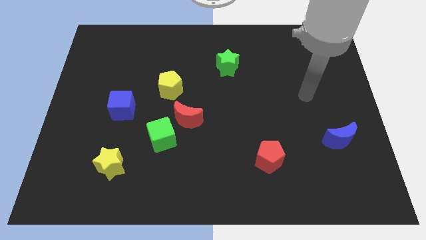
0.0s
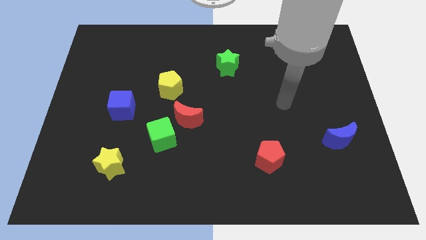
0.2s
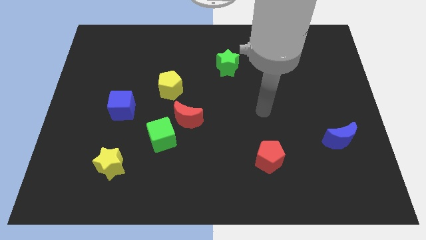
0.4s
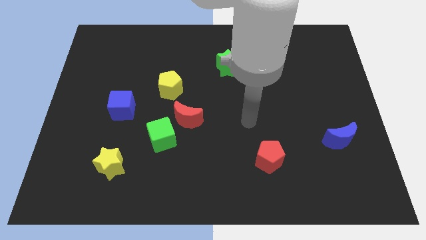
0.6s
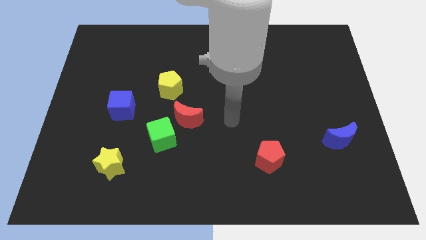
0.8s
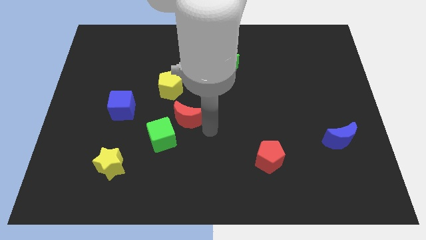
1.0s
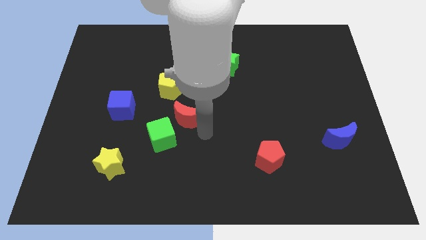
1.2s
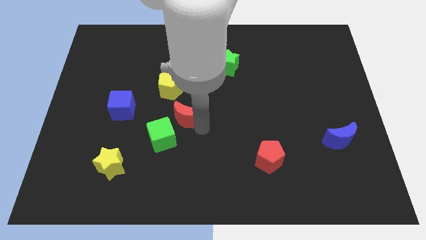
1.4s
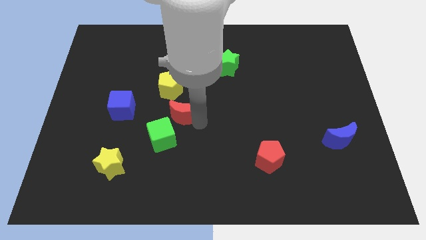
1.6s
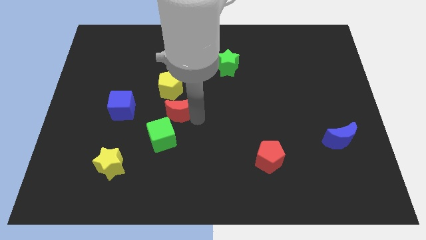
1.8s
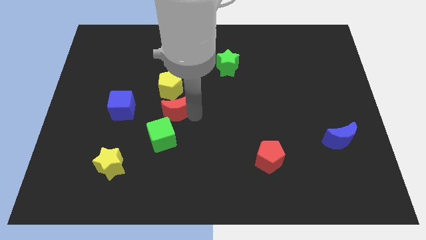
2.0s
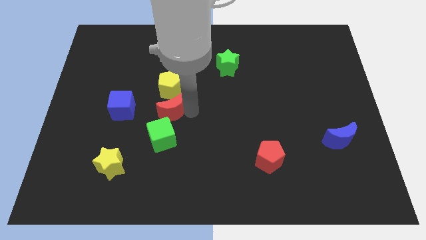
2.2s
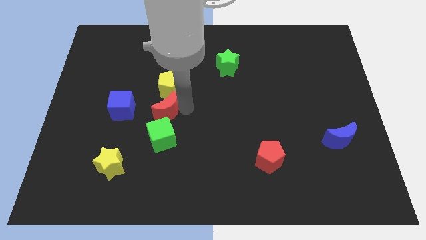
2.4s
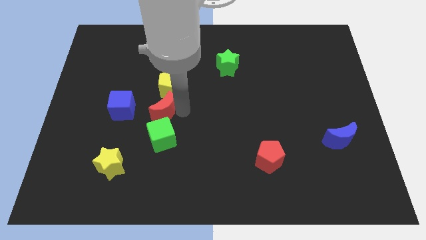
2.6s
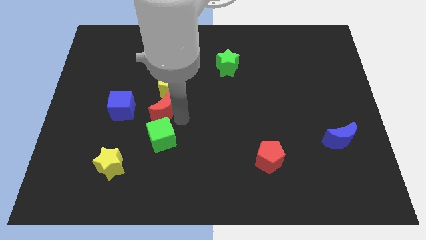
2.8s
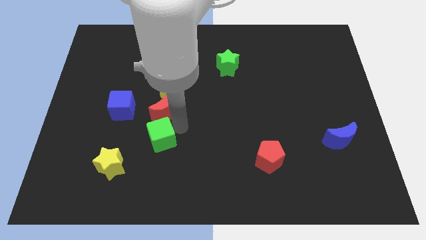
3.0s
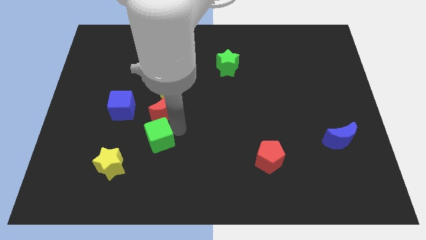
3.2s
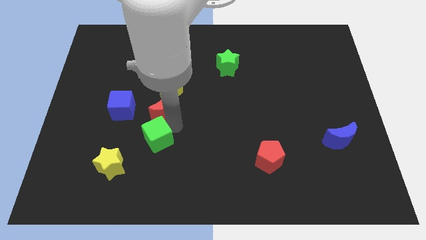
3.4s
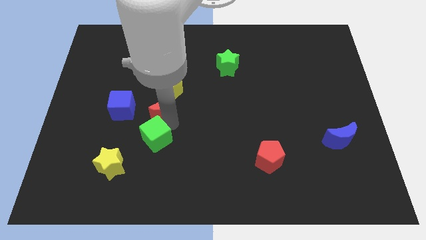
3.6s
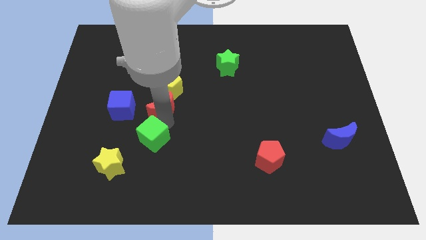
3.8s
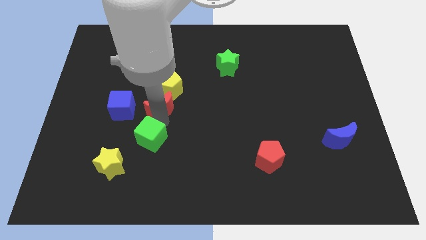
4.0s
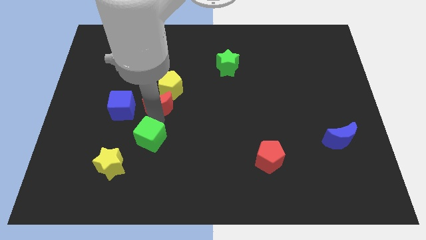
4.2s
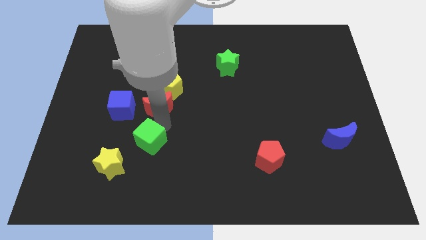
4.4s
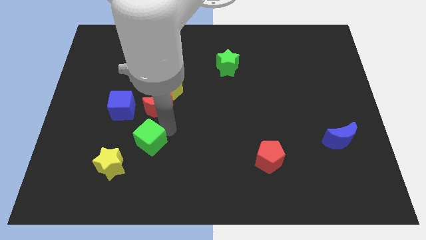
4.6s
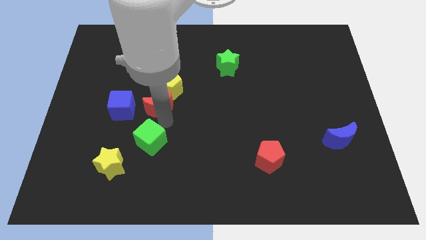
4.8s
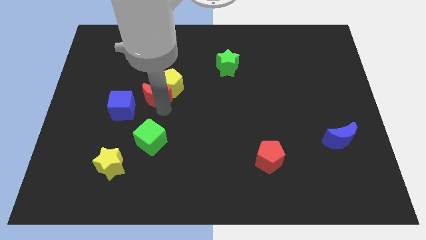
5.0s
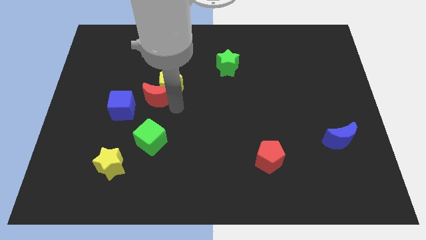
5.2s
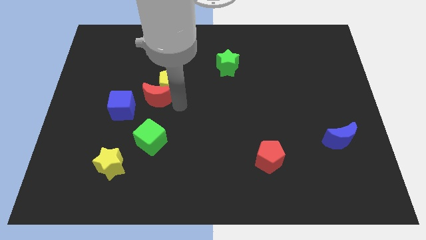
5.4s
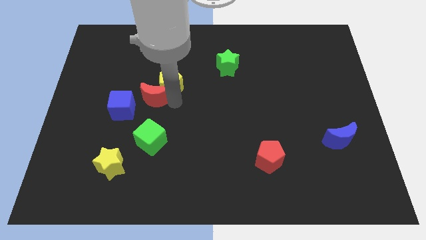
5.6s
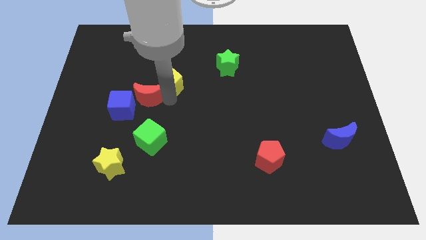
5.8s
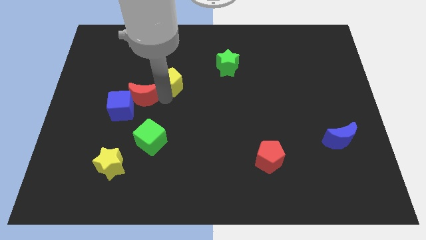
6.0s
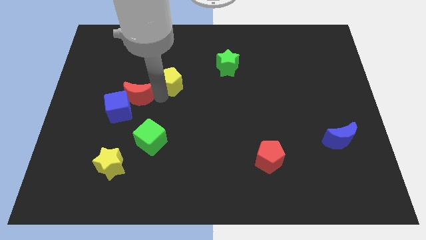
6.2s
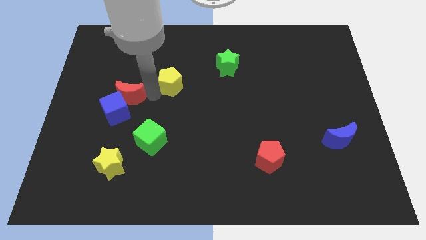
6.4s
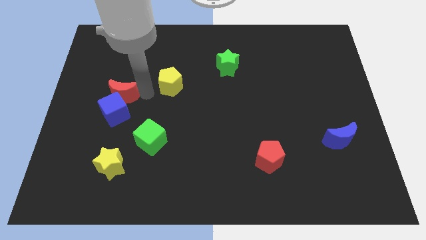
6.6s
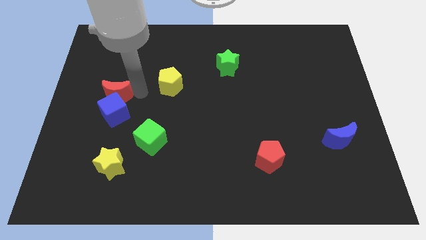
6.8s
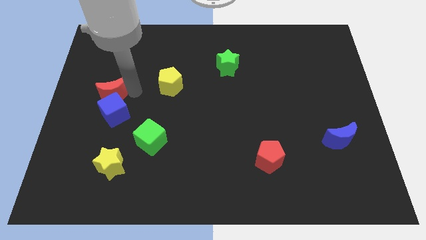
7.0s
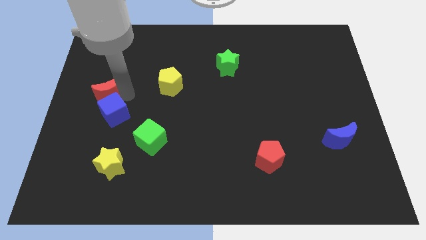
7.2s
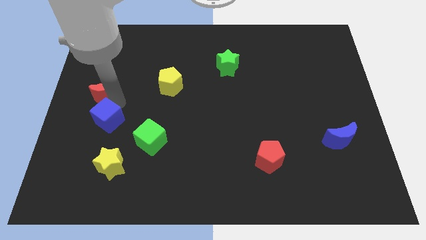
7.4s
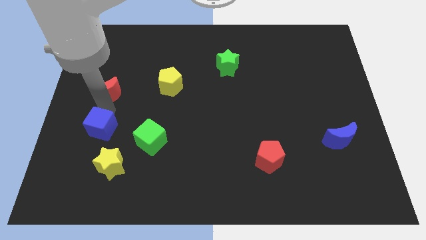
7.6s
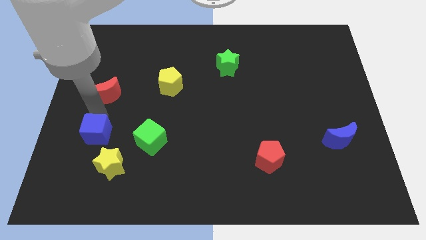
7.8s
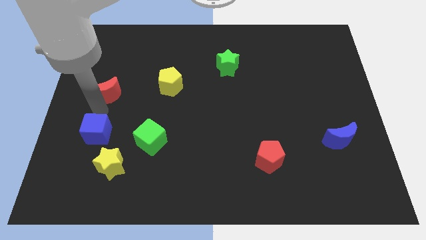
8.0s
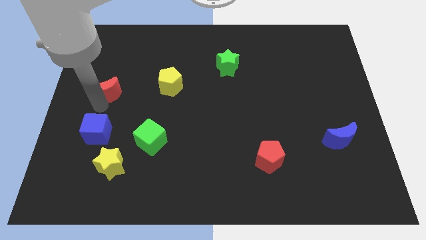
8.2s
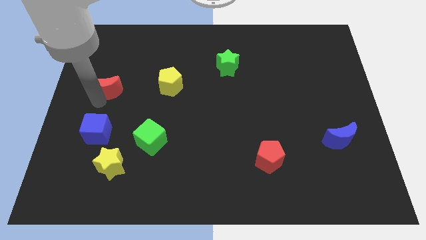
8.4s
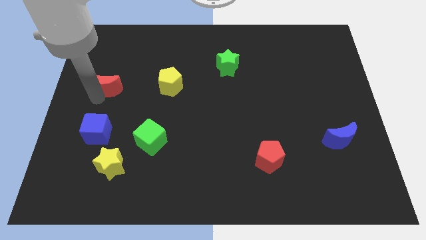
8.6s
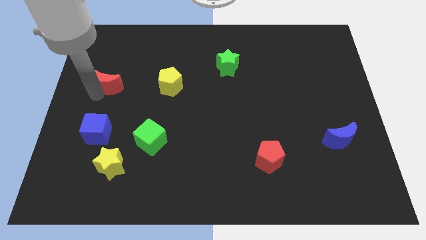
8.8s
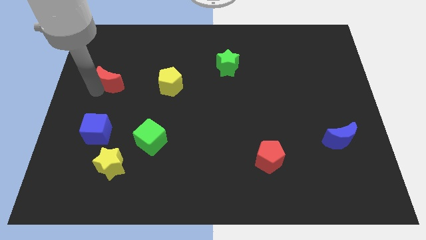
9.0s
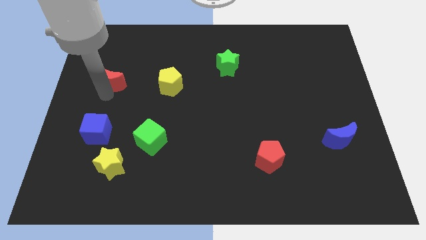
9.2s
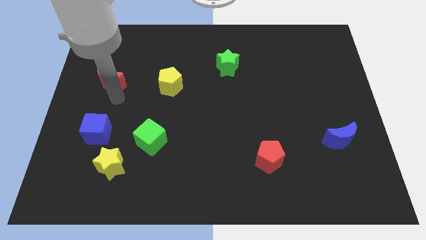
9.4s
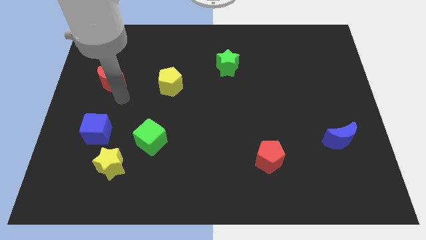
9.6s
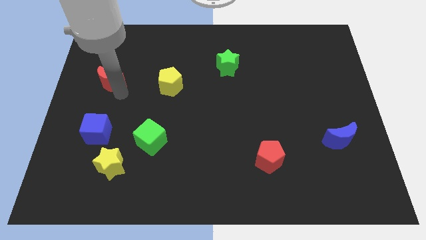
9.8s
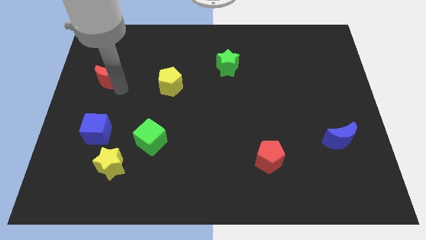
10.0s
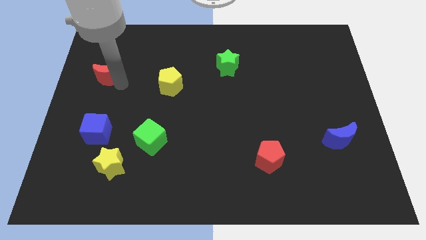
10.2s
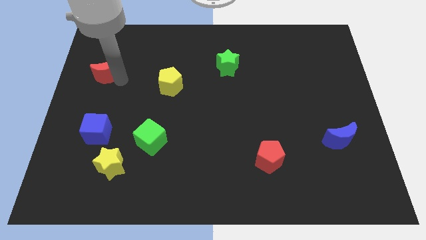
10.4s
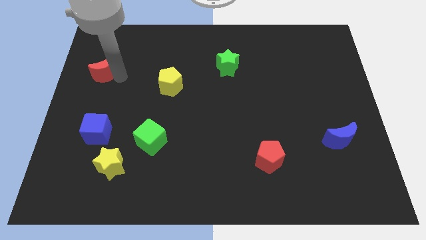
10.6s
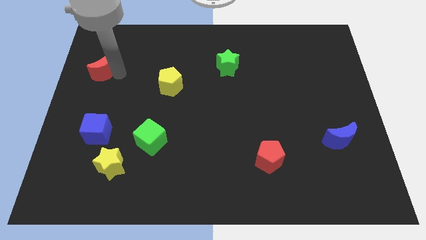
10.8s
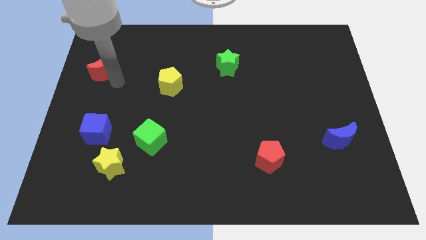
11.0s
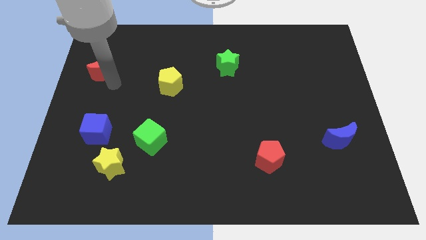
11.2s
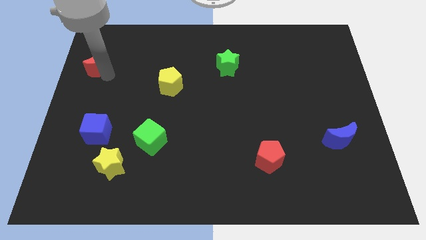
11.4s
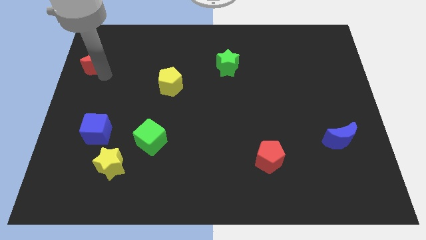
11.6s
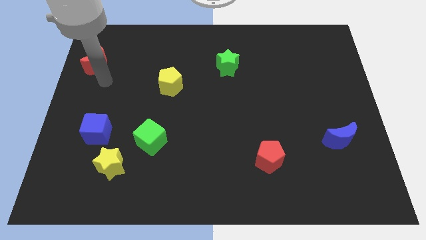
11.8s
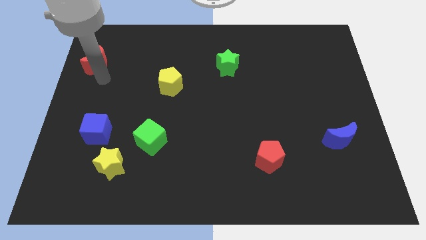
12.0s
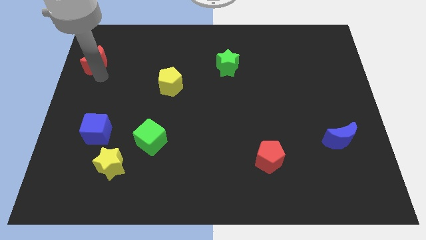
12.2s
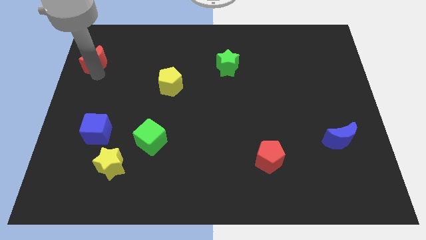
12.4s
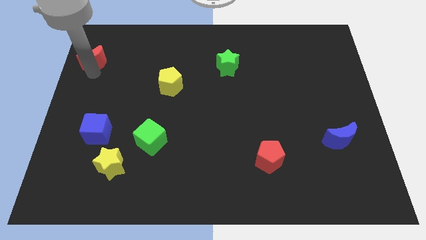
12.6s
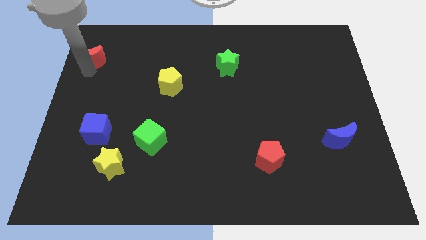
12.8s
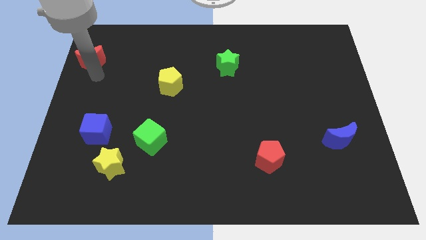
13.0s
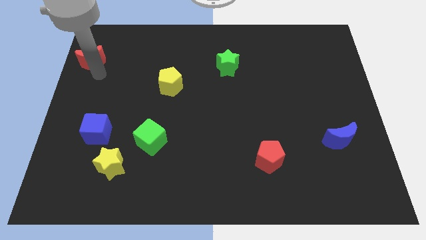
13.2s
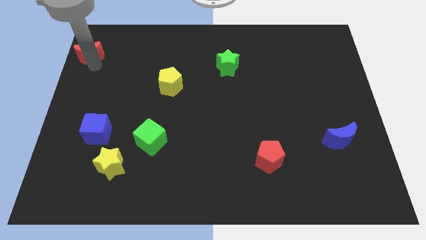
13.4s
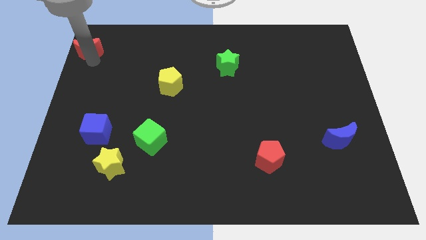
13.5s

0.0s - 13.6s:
push the red moon to the top left
